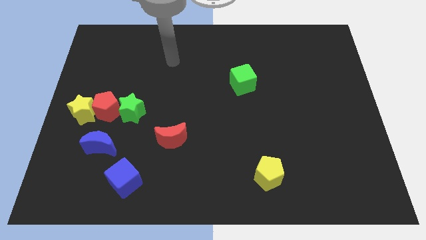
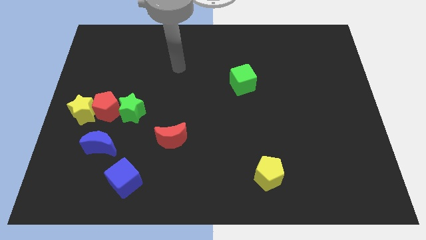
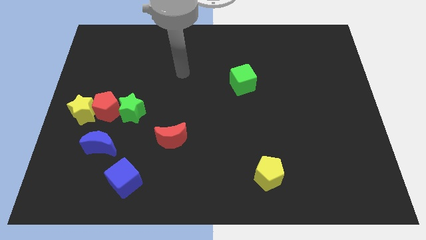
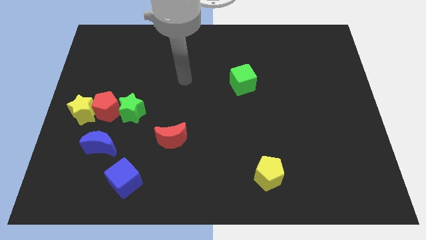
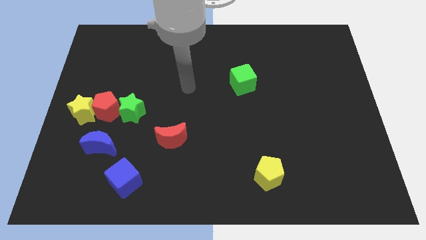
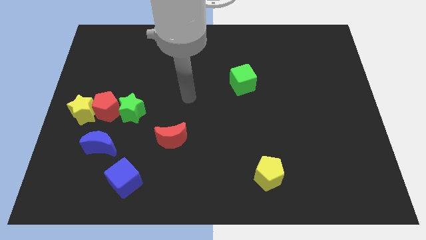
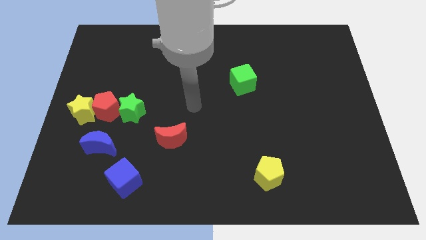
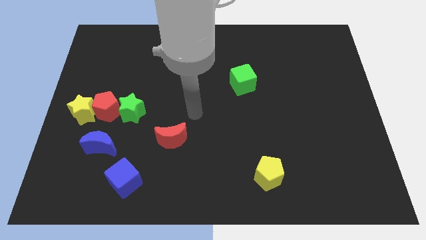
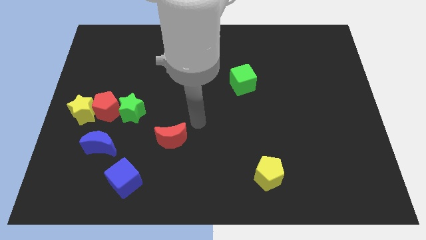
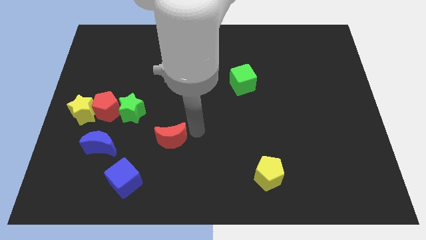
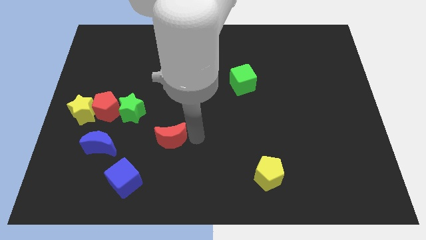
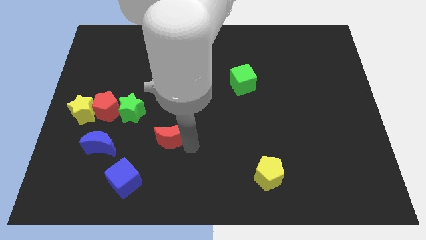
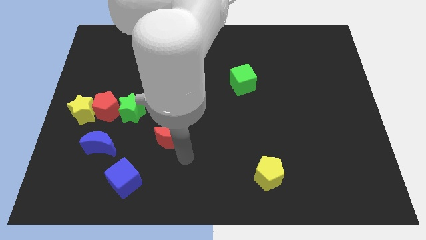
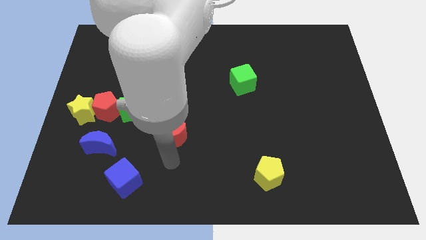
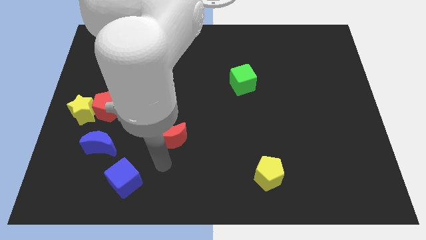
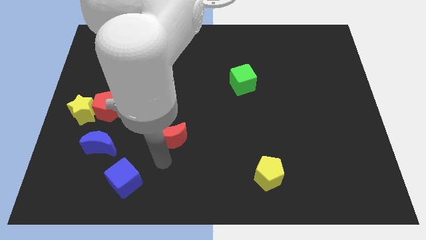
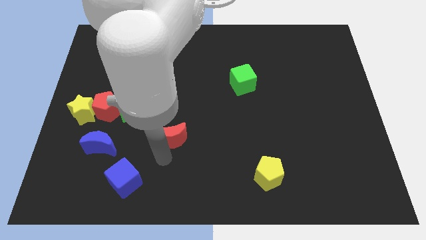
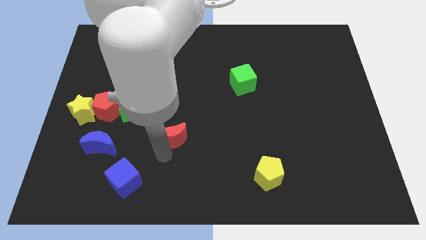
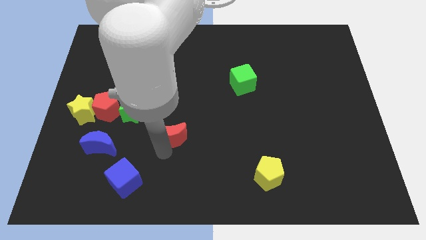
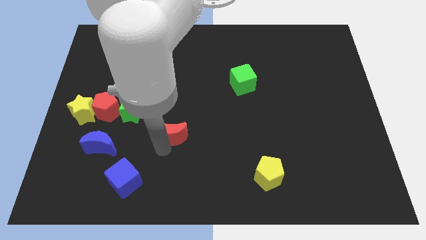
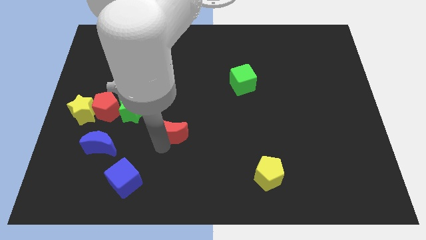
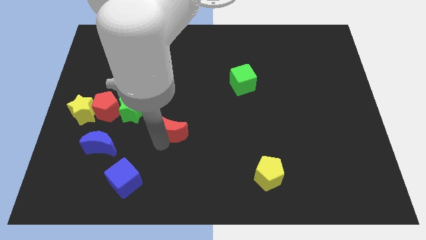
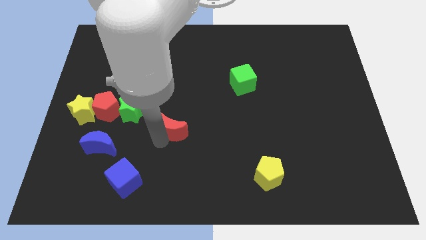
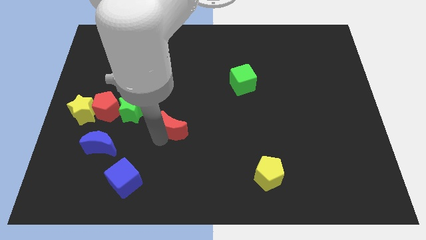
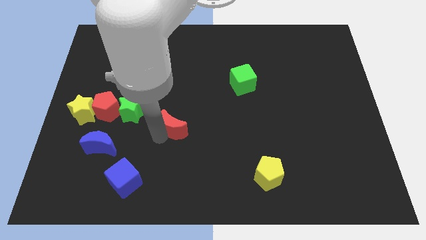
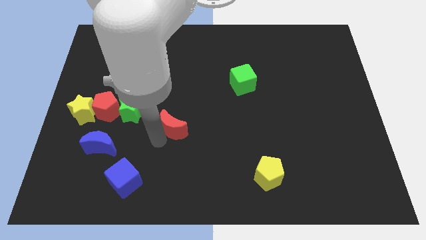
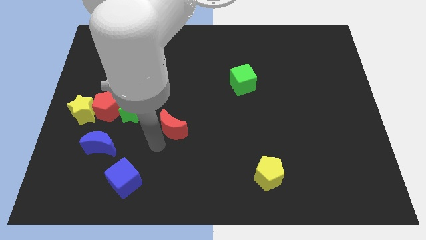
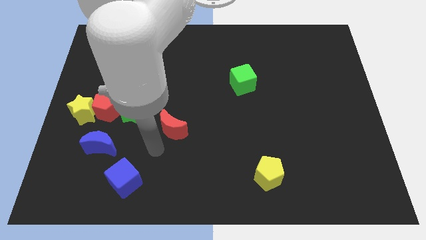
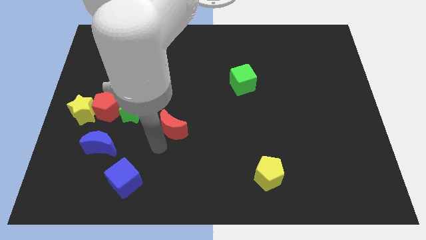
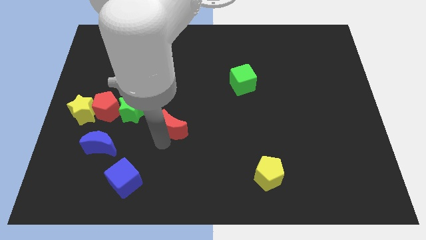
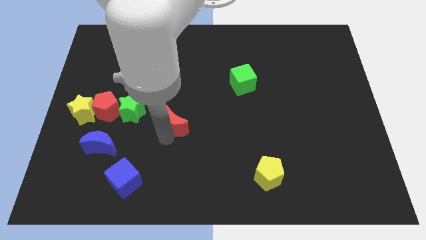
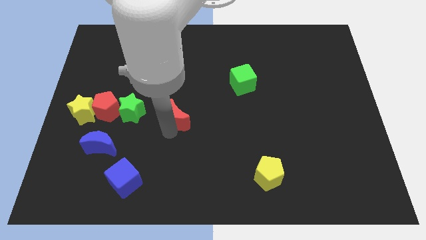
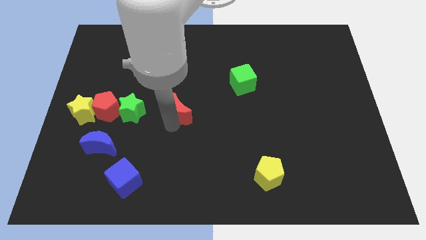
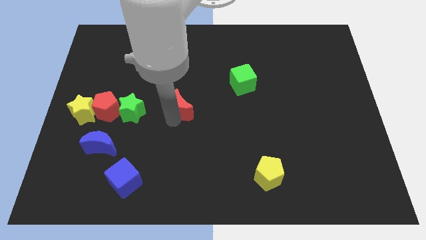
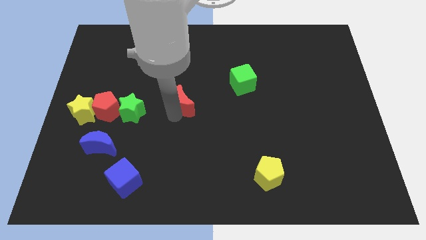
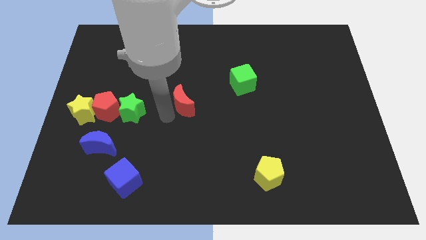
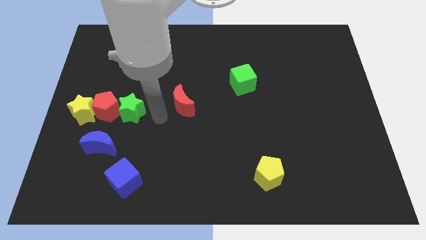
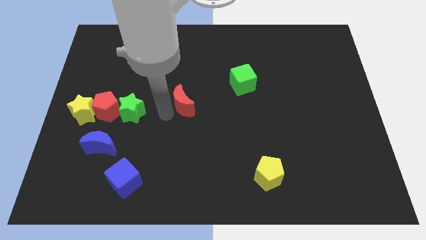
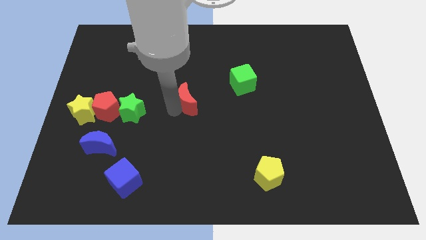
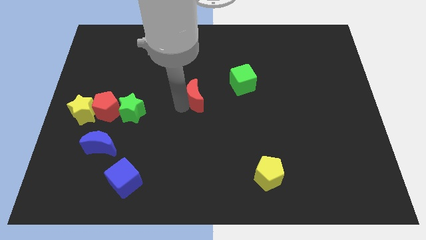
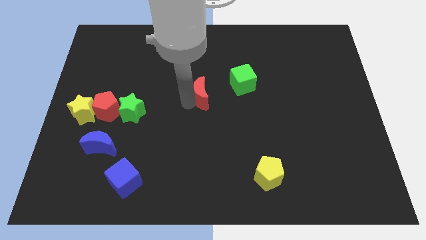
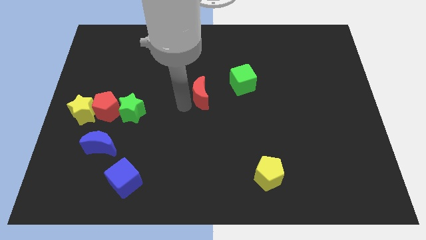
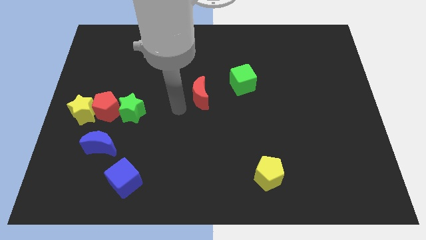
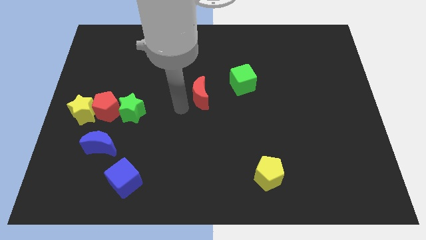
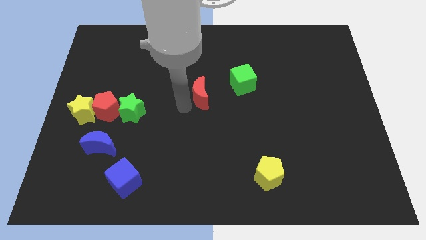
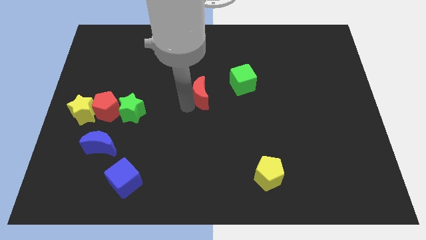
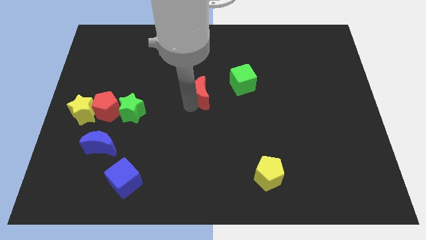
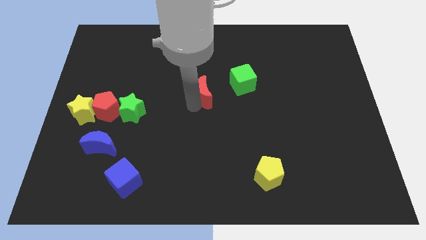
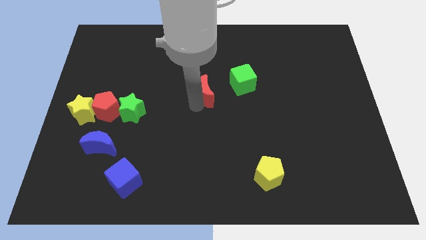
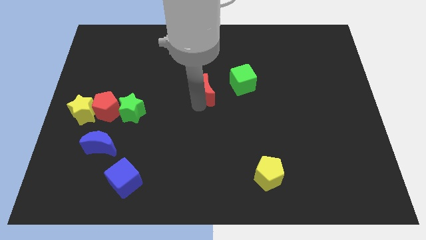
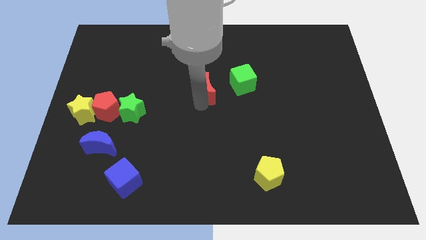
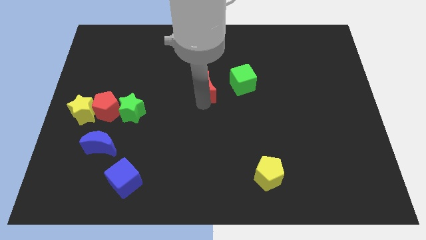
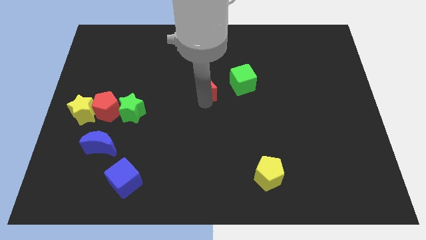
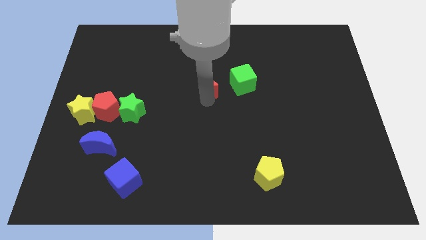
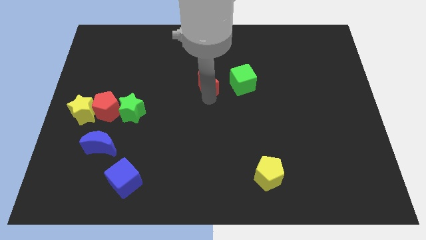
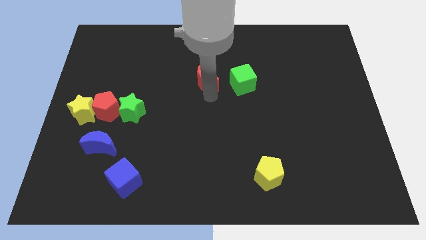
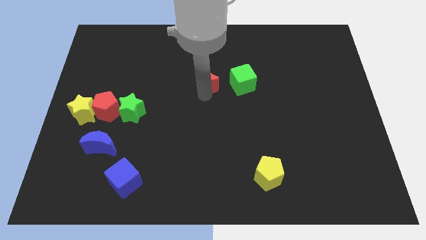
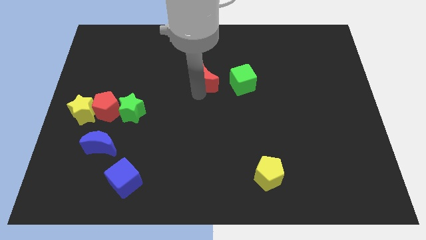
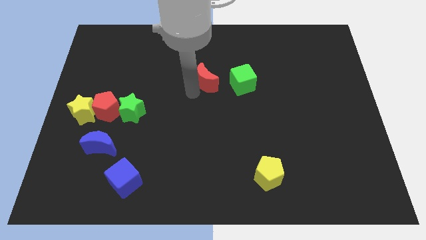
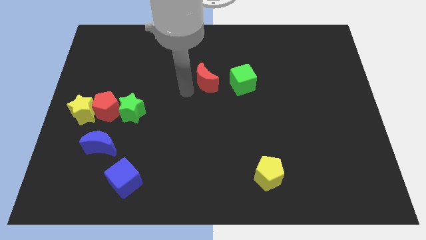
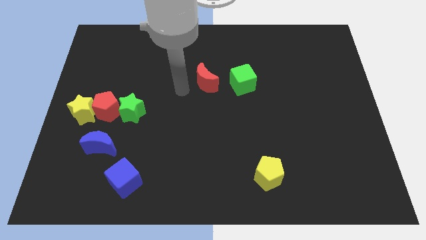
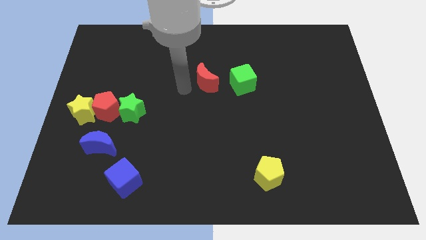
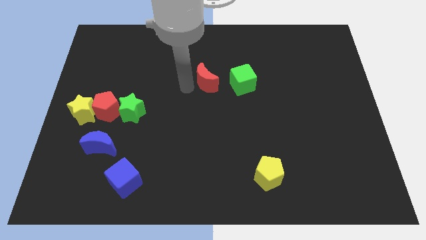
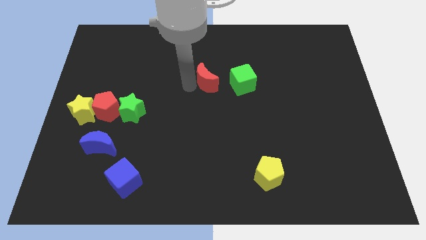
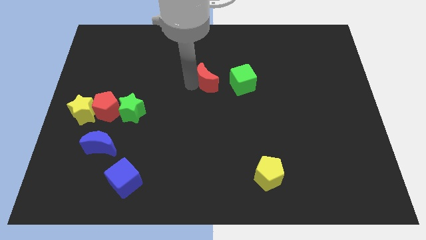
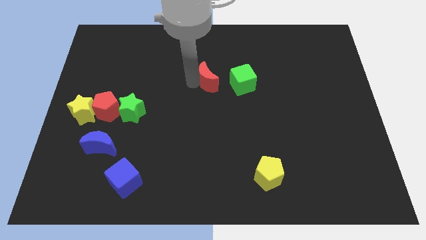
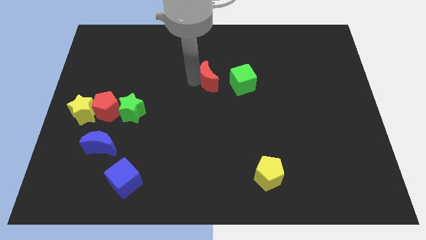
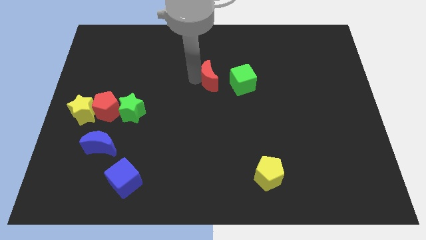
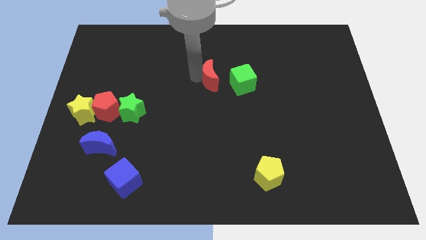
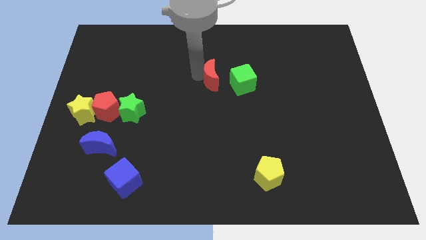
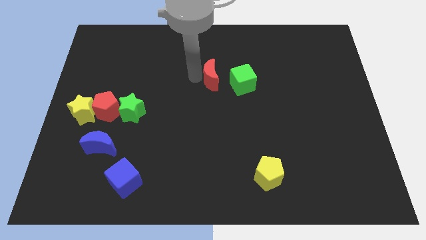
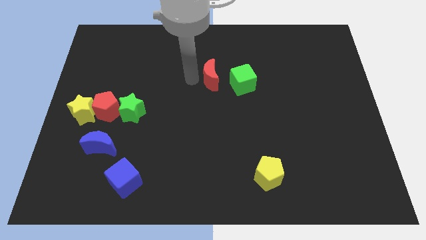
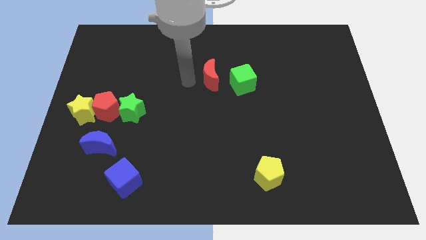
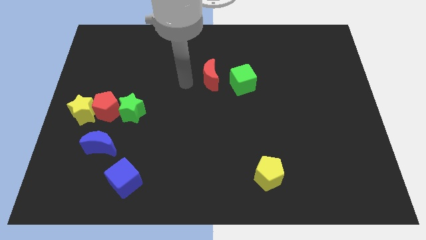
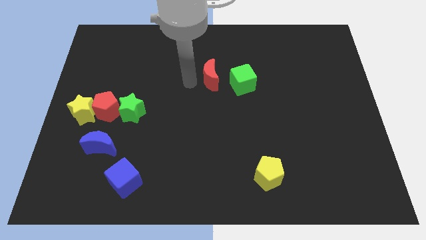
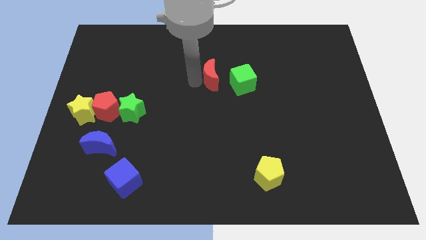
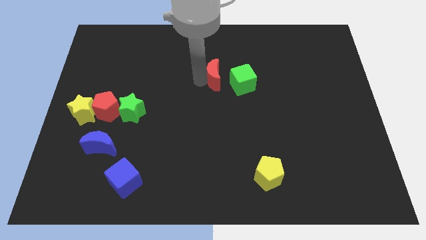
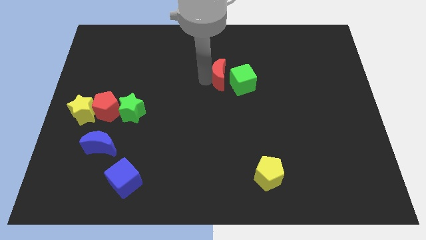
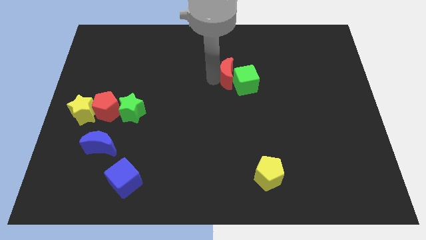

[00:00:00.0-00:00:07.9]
push the red moon diagonally upwards and to the right
